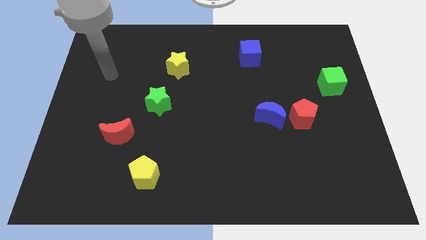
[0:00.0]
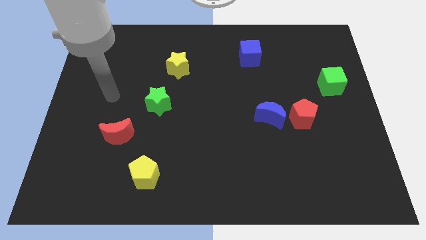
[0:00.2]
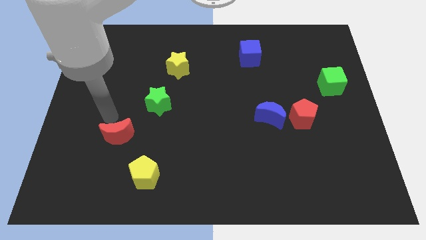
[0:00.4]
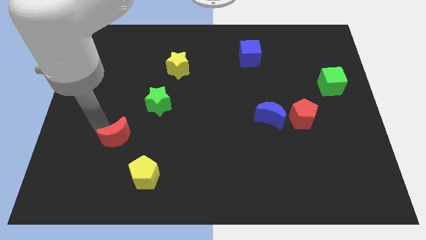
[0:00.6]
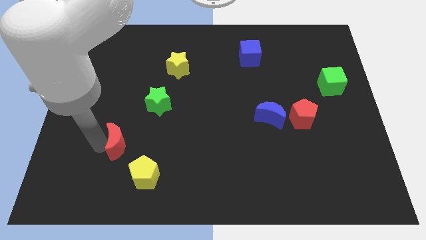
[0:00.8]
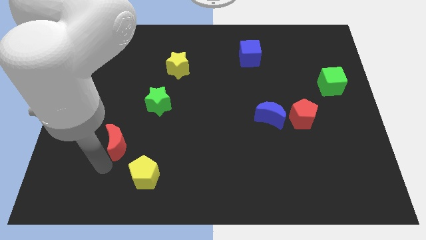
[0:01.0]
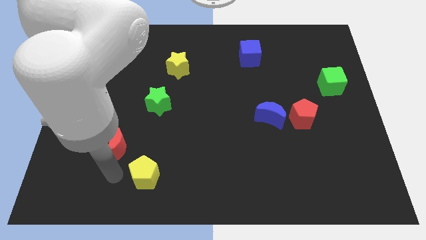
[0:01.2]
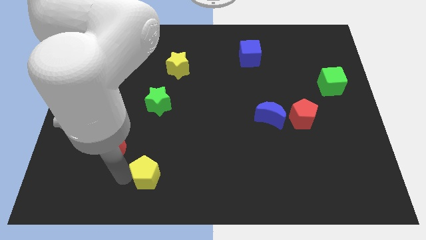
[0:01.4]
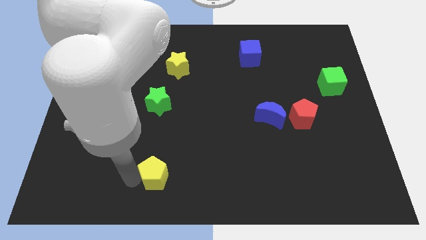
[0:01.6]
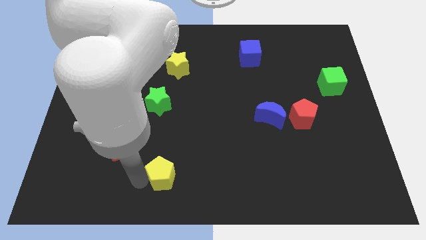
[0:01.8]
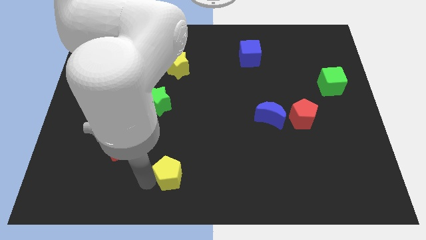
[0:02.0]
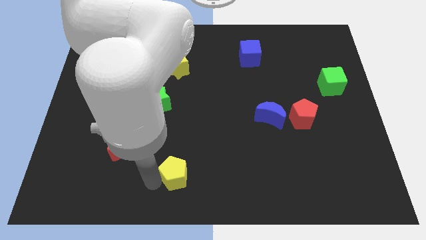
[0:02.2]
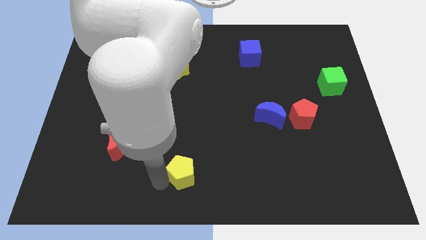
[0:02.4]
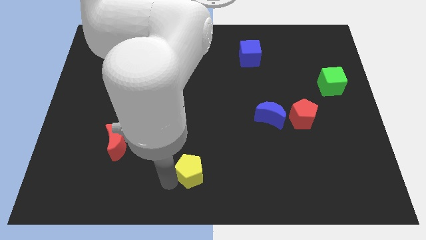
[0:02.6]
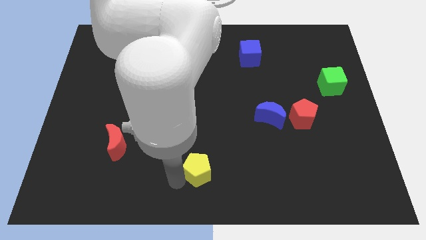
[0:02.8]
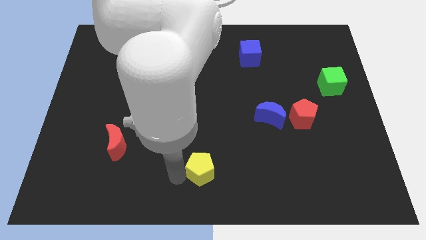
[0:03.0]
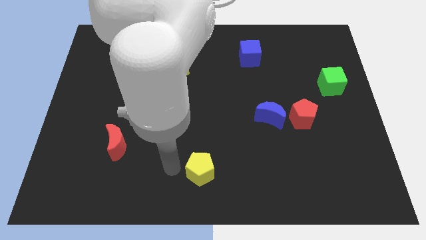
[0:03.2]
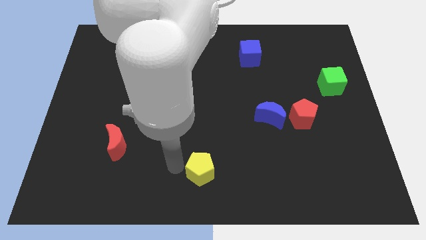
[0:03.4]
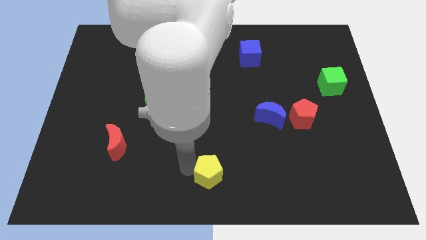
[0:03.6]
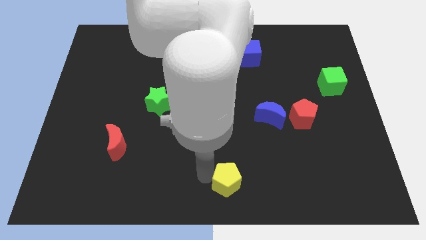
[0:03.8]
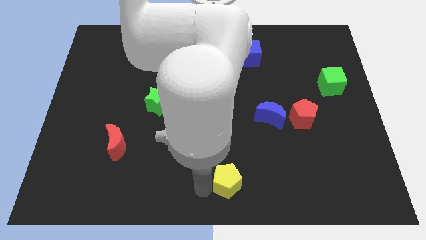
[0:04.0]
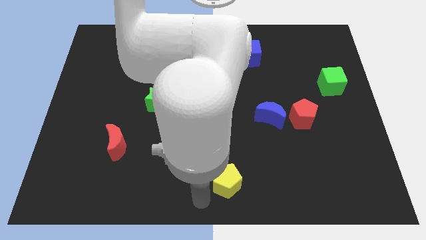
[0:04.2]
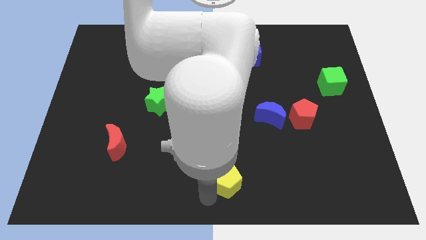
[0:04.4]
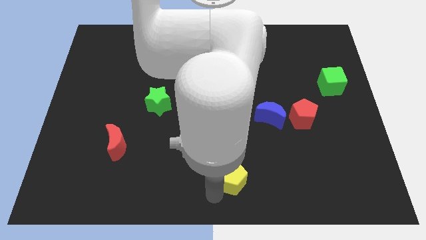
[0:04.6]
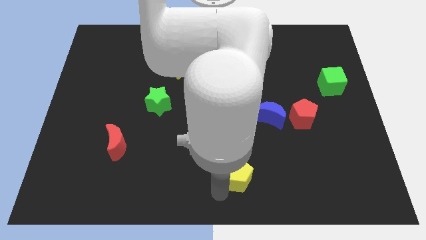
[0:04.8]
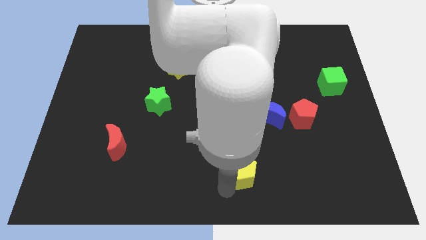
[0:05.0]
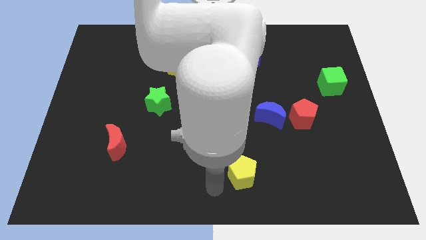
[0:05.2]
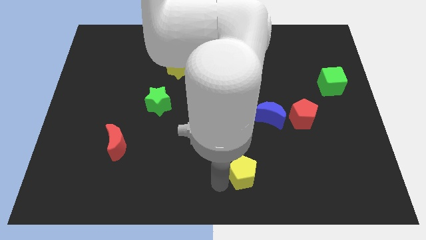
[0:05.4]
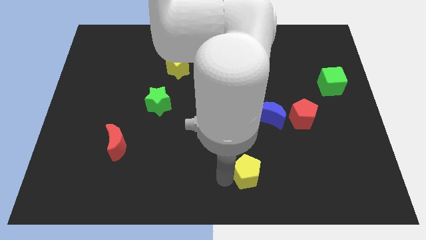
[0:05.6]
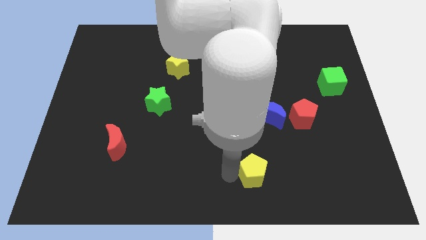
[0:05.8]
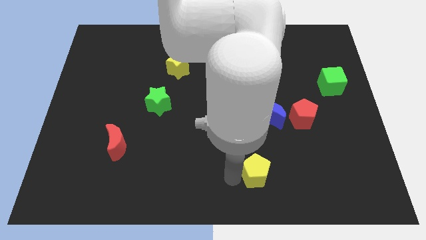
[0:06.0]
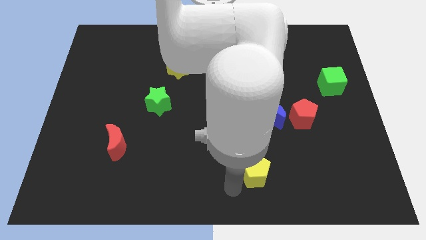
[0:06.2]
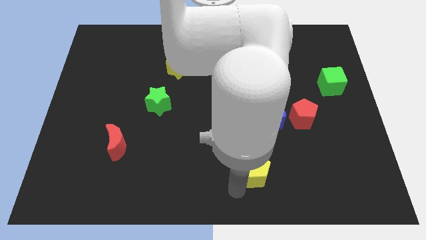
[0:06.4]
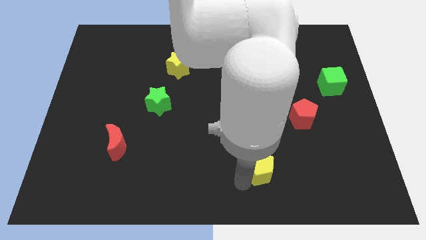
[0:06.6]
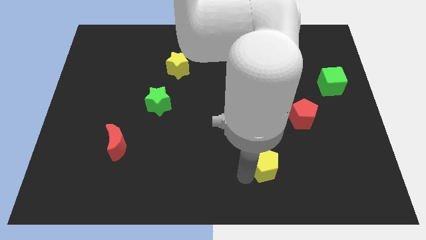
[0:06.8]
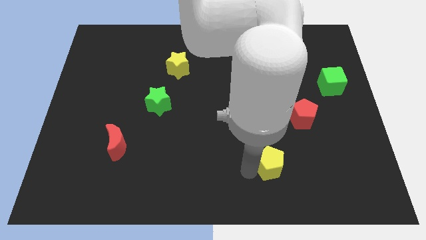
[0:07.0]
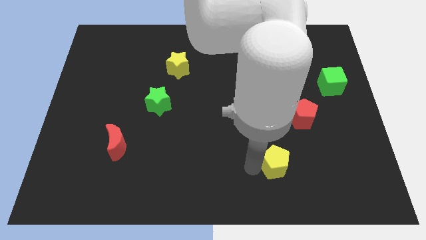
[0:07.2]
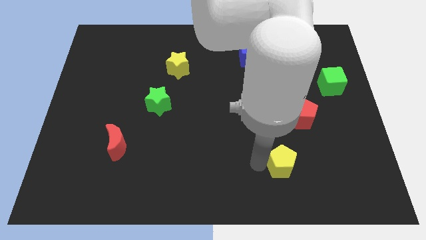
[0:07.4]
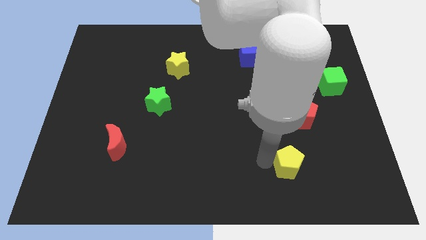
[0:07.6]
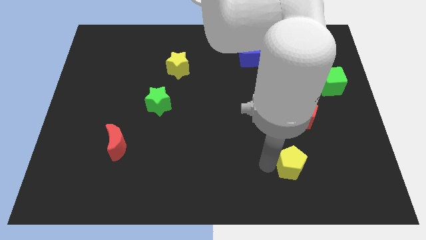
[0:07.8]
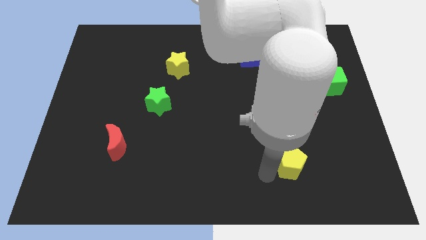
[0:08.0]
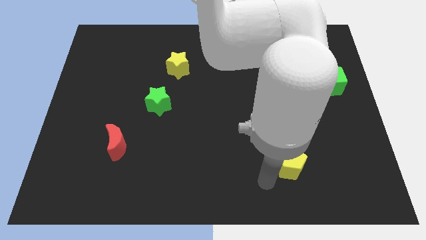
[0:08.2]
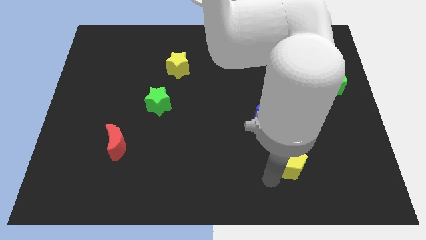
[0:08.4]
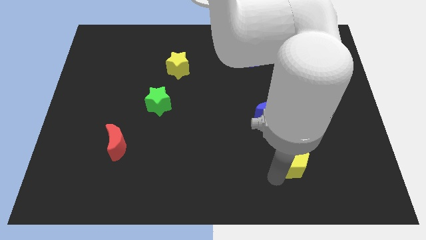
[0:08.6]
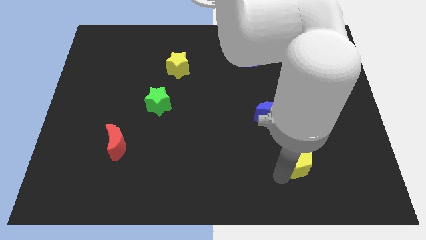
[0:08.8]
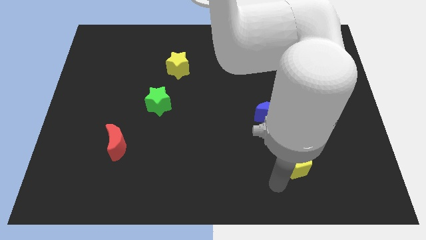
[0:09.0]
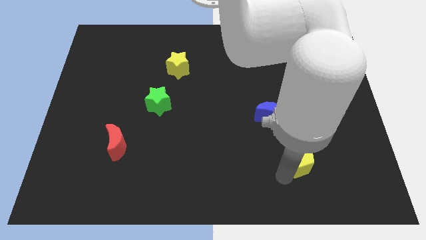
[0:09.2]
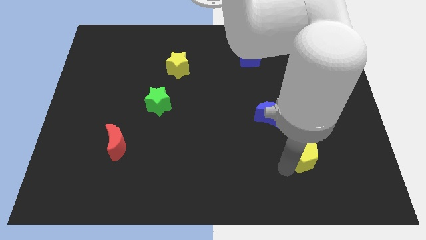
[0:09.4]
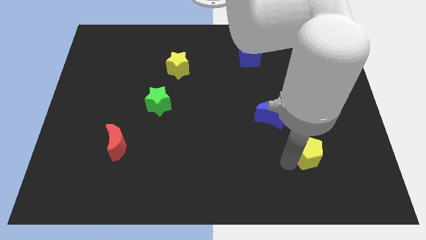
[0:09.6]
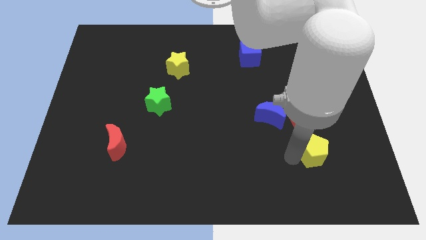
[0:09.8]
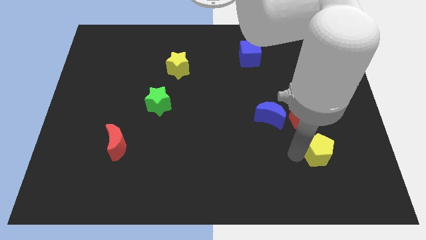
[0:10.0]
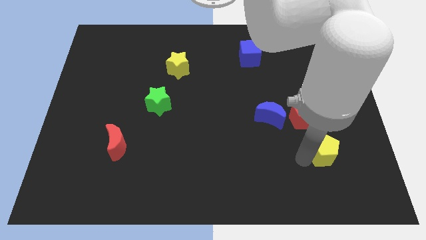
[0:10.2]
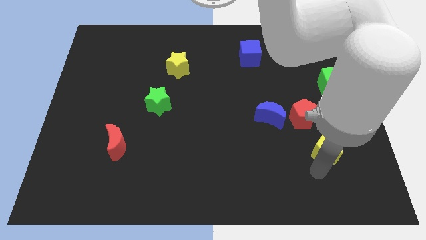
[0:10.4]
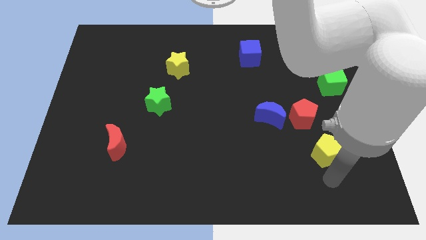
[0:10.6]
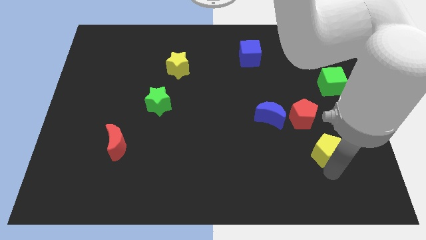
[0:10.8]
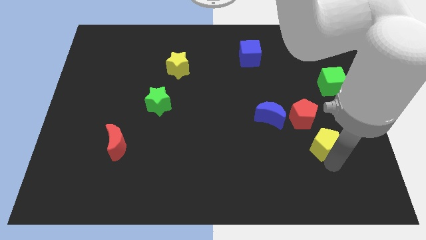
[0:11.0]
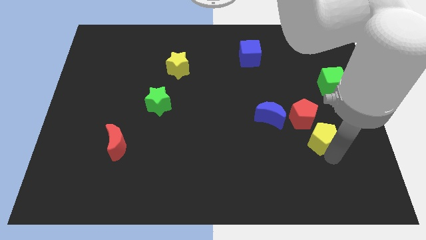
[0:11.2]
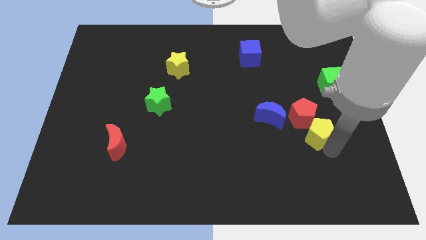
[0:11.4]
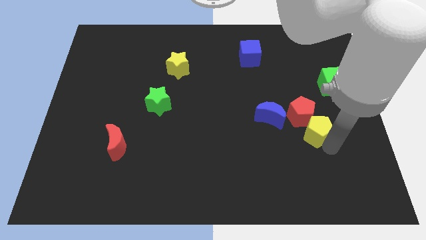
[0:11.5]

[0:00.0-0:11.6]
move the yellow pentagon just right of the blue moon

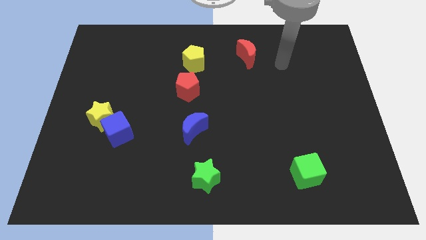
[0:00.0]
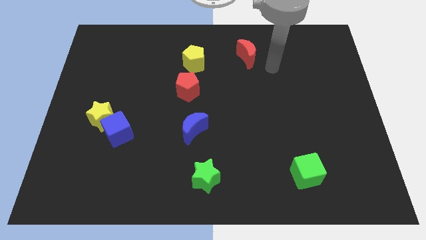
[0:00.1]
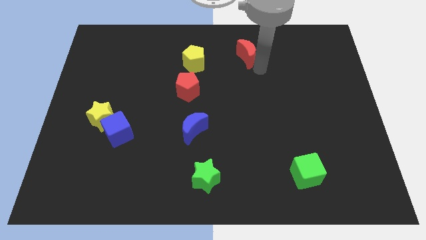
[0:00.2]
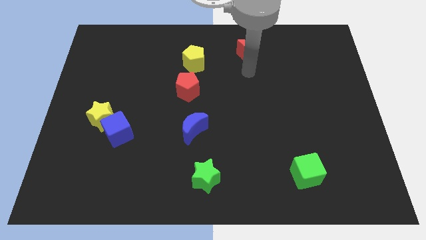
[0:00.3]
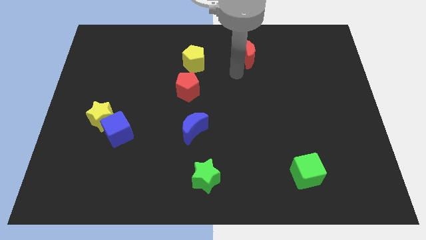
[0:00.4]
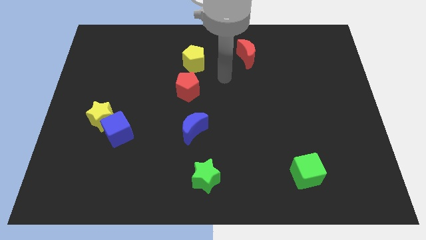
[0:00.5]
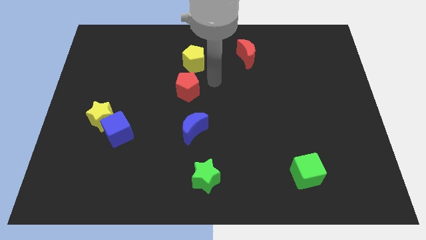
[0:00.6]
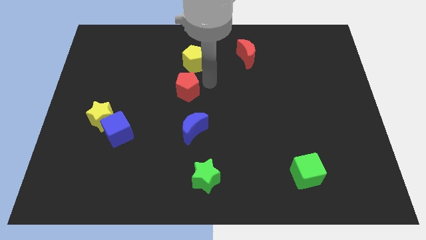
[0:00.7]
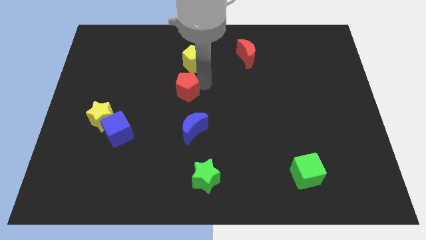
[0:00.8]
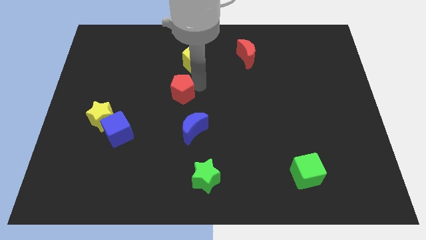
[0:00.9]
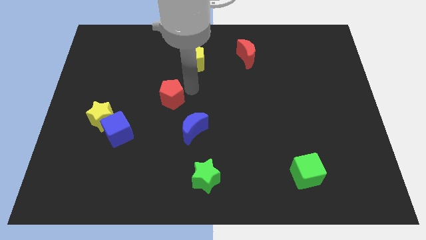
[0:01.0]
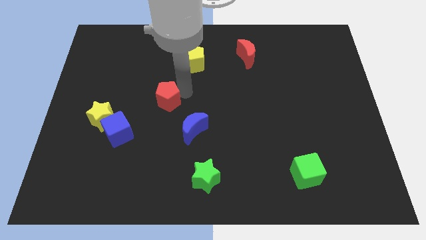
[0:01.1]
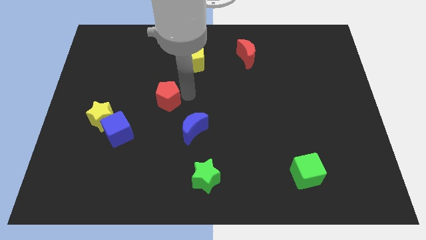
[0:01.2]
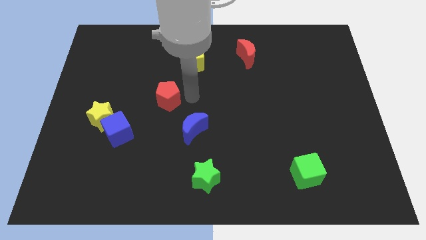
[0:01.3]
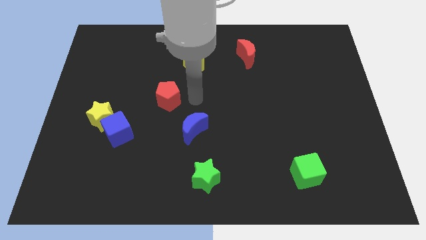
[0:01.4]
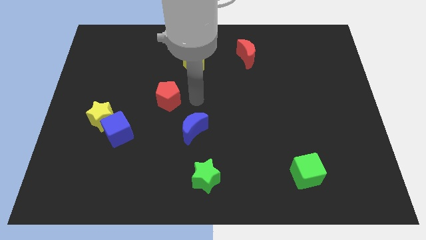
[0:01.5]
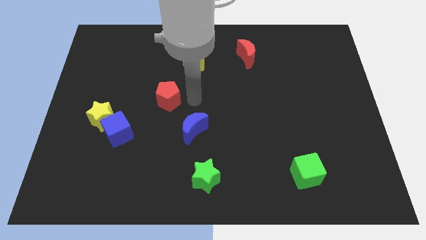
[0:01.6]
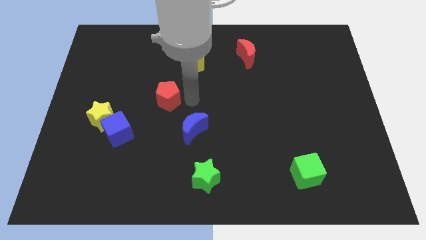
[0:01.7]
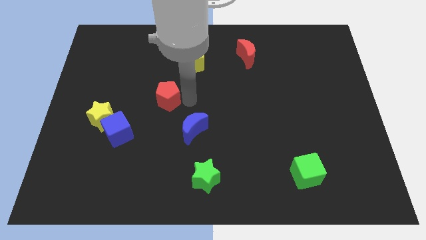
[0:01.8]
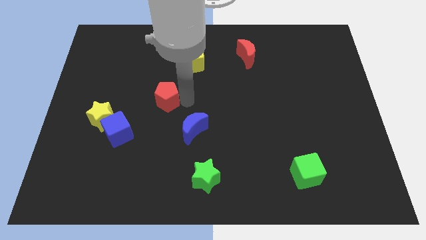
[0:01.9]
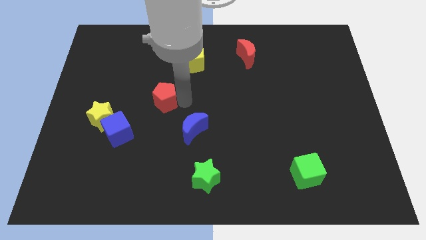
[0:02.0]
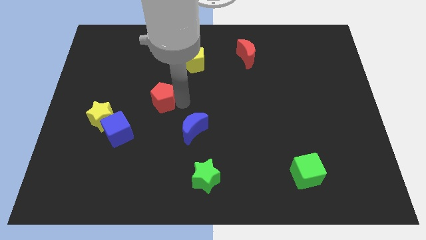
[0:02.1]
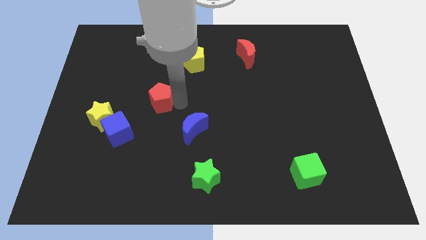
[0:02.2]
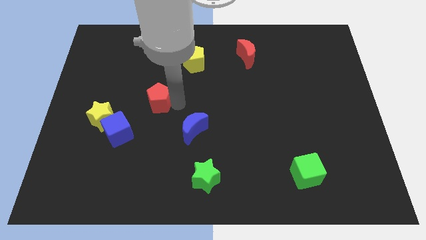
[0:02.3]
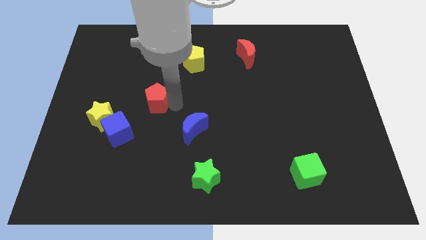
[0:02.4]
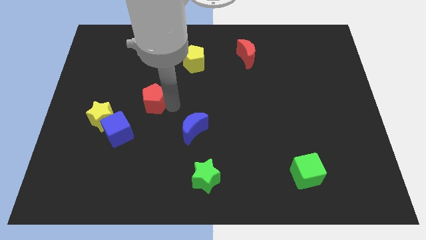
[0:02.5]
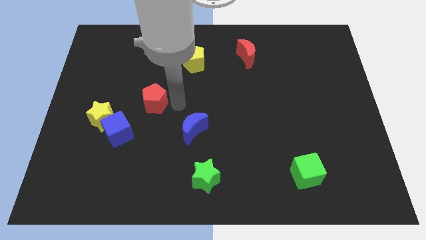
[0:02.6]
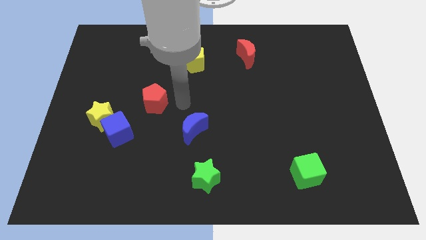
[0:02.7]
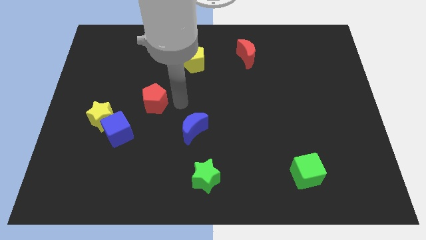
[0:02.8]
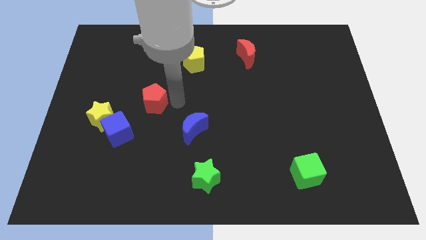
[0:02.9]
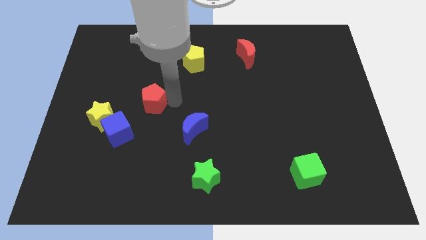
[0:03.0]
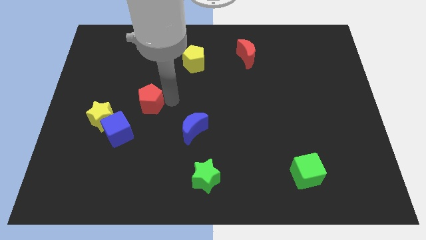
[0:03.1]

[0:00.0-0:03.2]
push the red pentagon diagonally up and to the right of the yellow star
